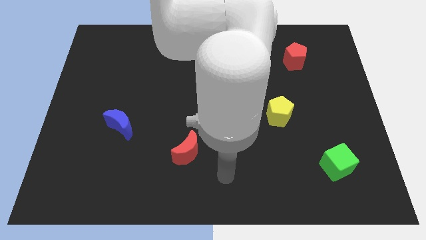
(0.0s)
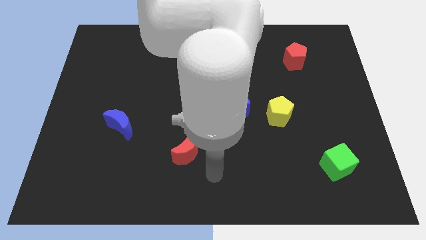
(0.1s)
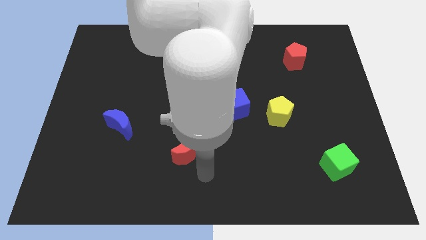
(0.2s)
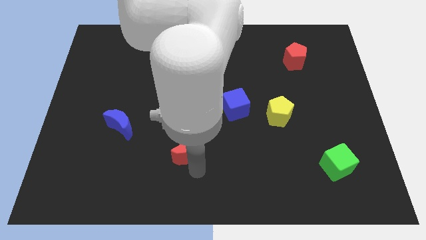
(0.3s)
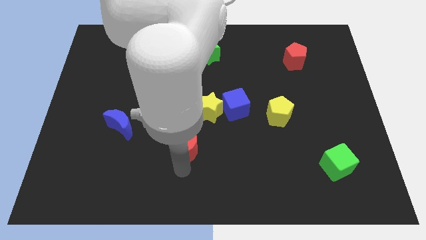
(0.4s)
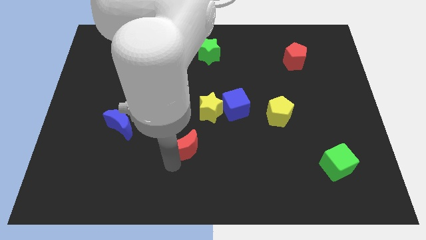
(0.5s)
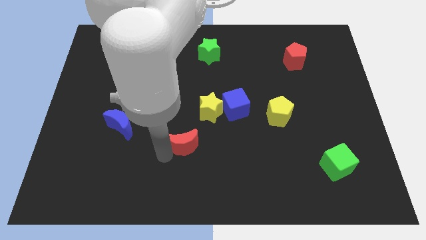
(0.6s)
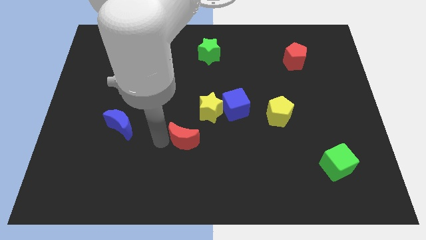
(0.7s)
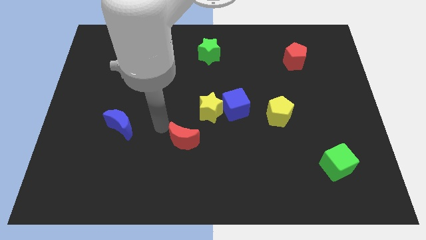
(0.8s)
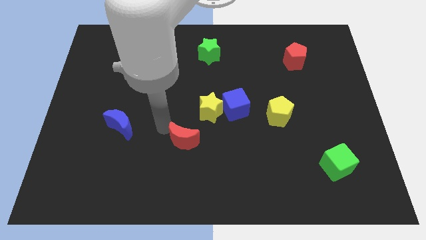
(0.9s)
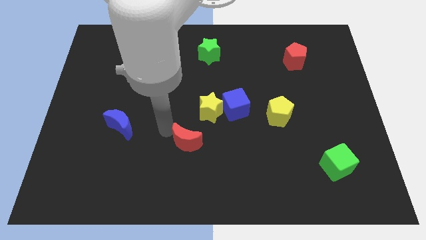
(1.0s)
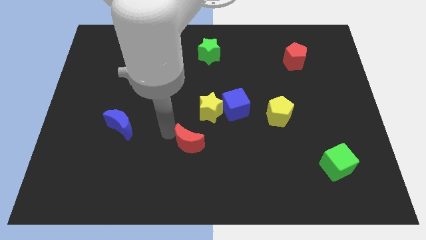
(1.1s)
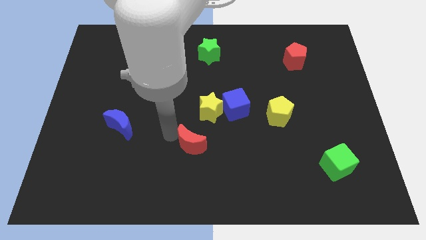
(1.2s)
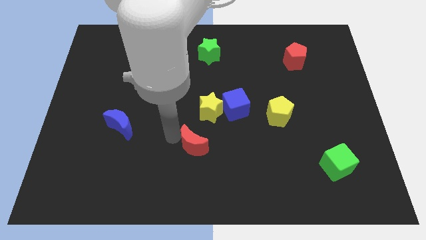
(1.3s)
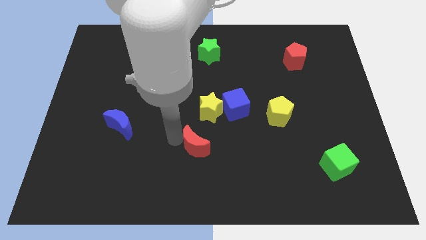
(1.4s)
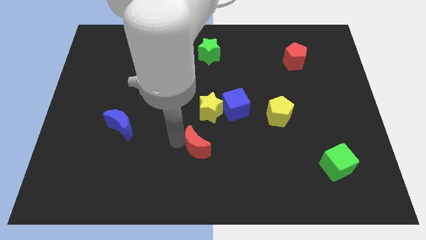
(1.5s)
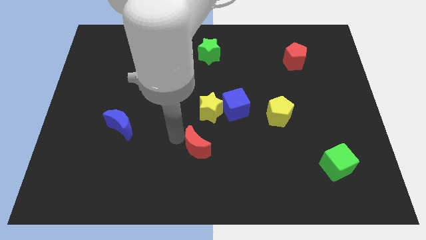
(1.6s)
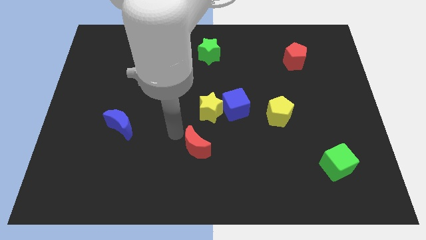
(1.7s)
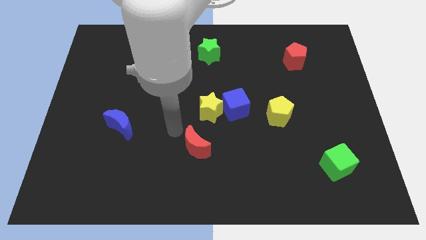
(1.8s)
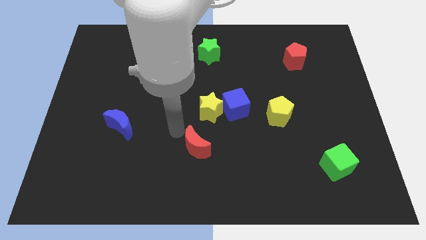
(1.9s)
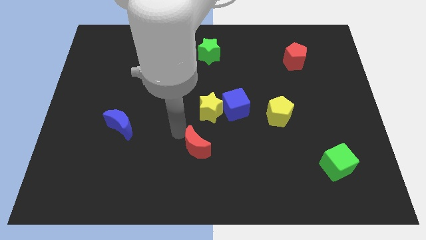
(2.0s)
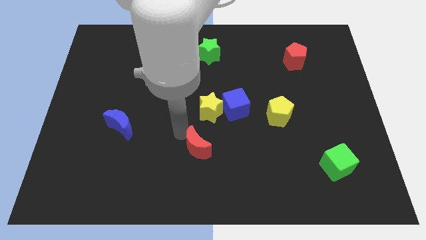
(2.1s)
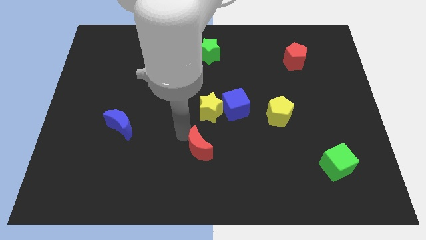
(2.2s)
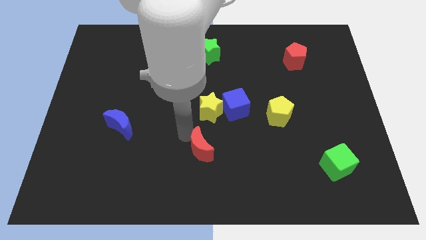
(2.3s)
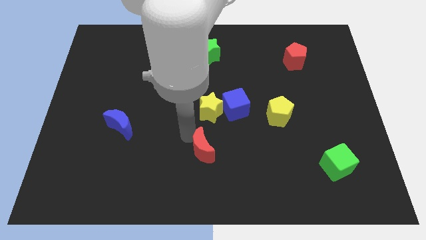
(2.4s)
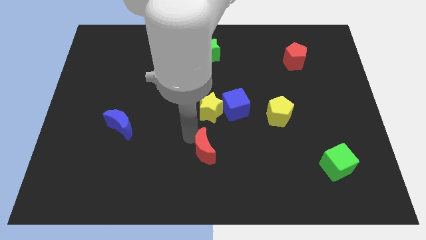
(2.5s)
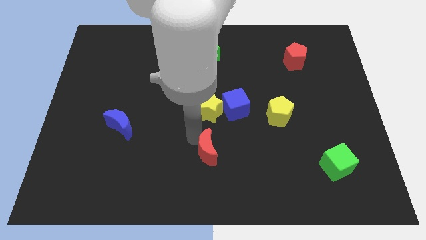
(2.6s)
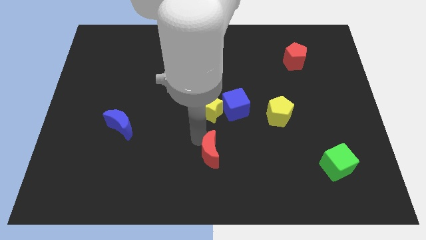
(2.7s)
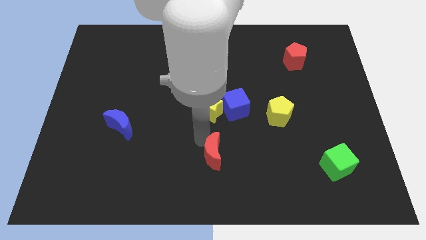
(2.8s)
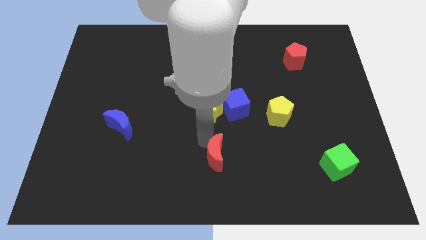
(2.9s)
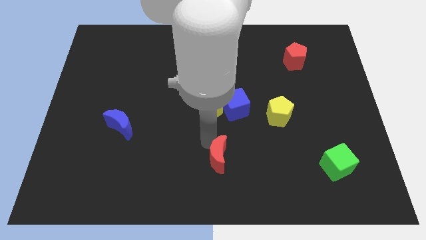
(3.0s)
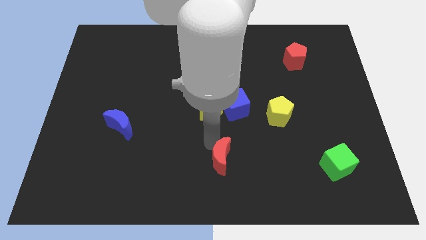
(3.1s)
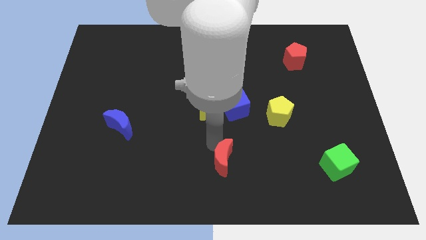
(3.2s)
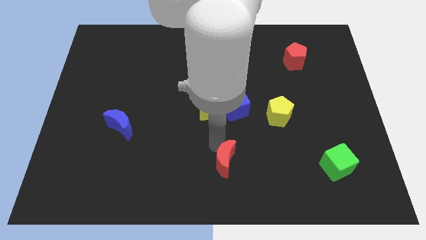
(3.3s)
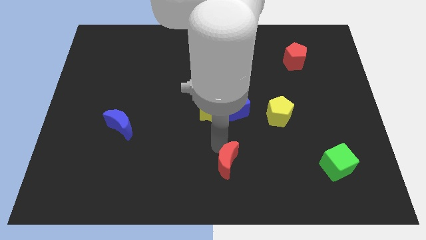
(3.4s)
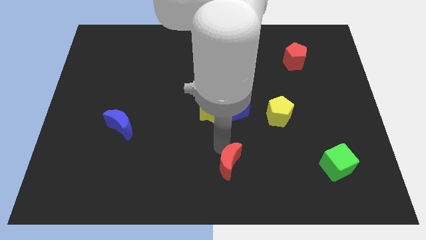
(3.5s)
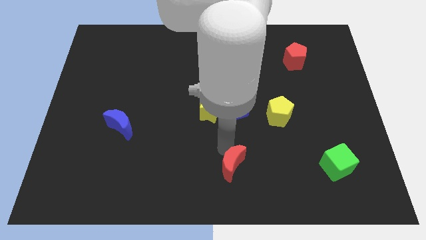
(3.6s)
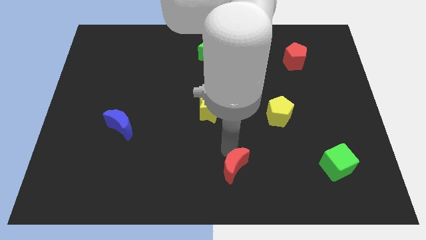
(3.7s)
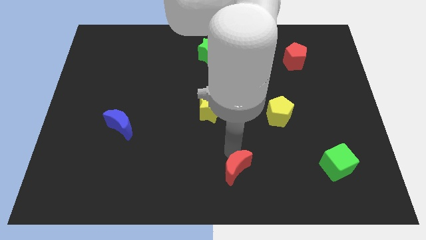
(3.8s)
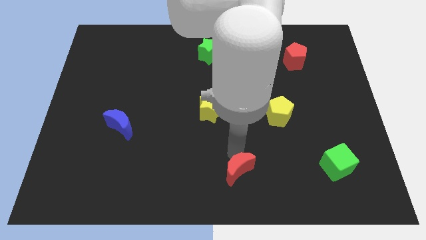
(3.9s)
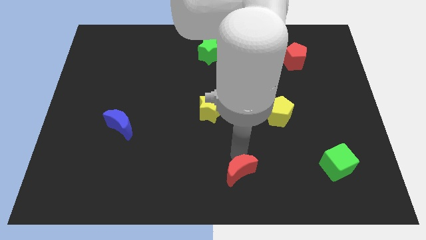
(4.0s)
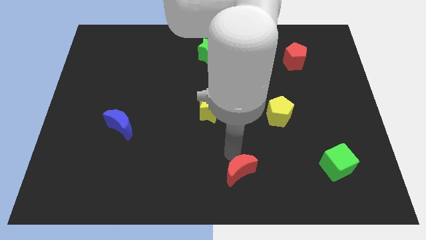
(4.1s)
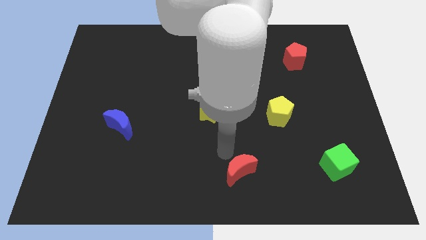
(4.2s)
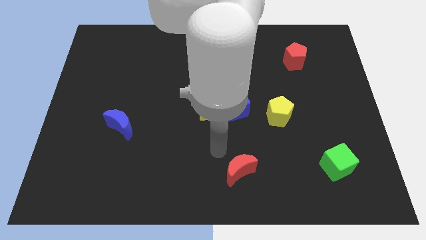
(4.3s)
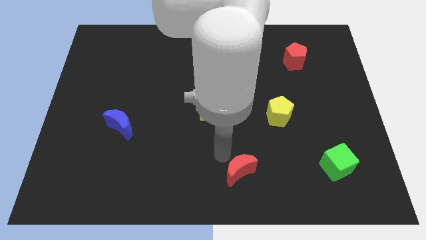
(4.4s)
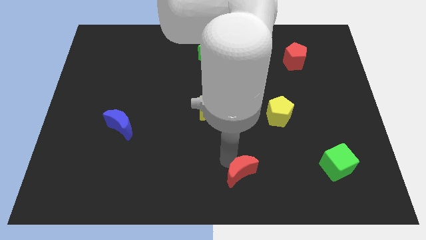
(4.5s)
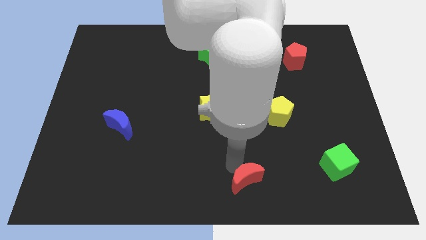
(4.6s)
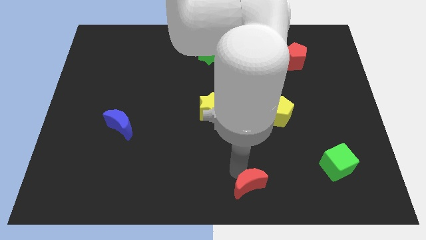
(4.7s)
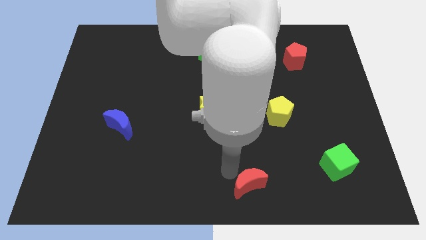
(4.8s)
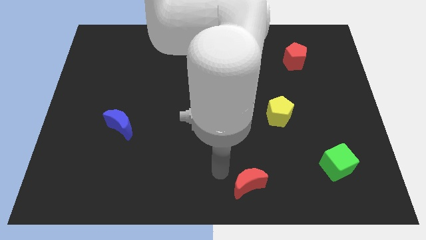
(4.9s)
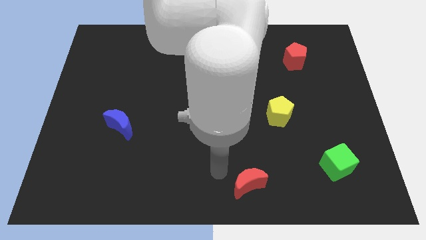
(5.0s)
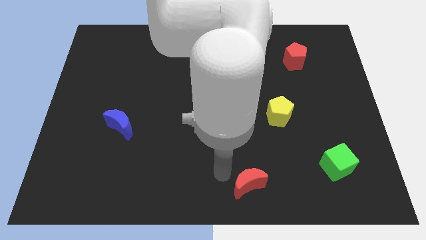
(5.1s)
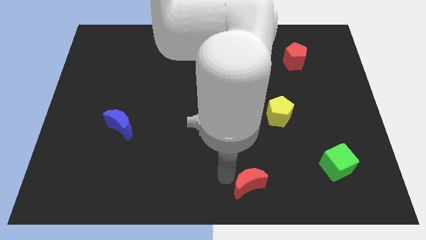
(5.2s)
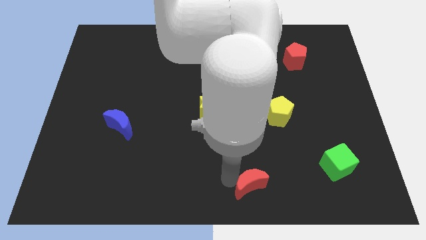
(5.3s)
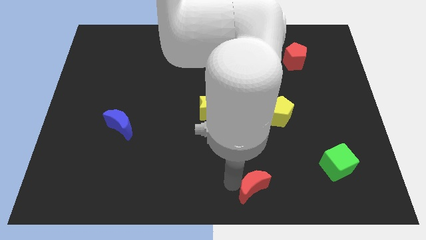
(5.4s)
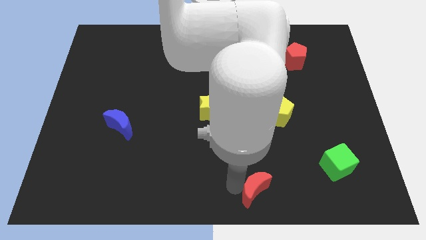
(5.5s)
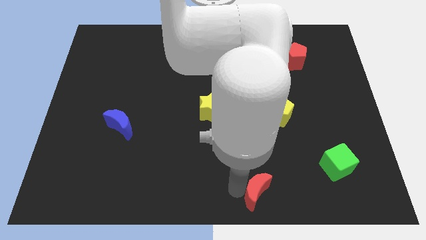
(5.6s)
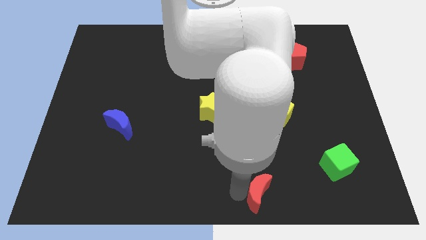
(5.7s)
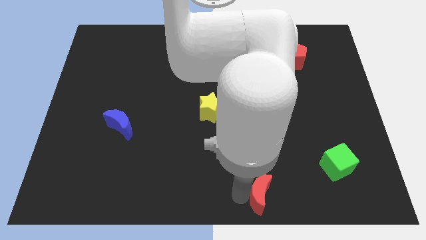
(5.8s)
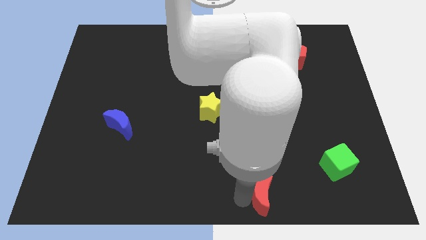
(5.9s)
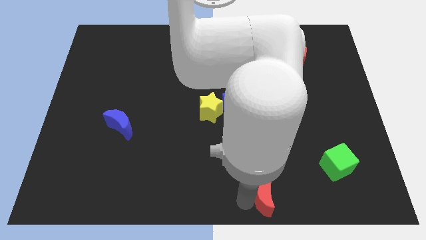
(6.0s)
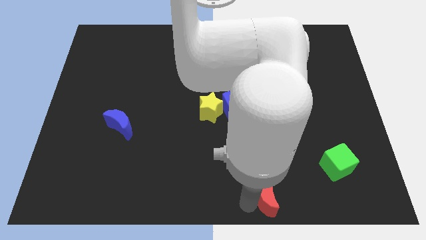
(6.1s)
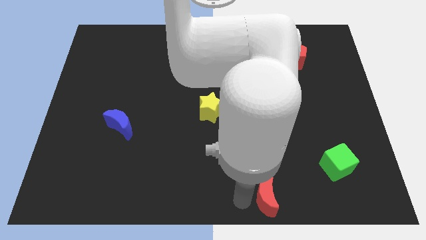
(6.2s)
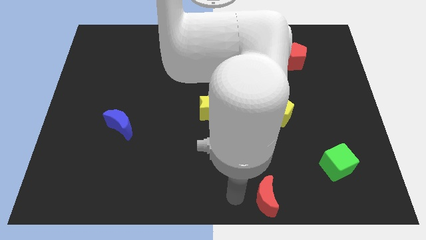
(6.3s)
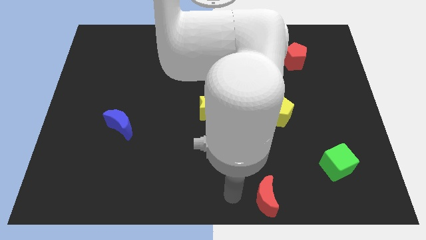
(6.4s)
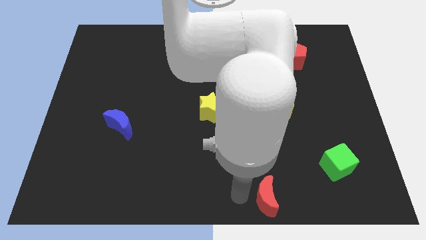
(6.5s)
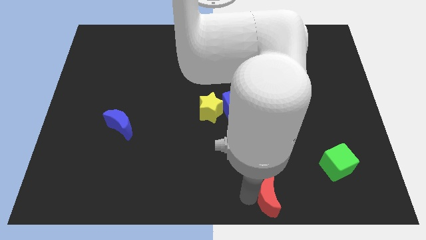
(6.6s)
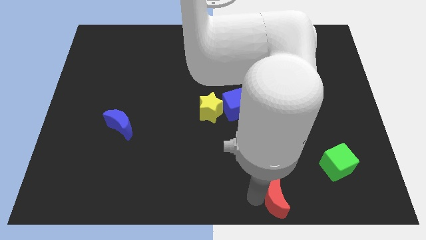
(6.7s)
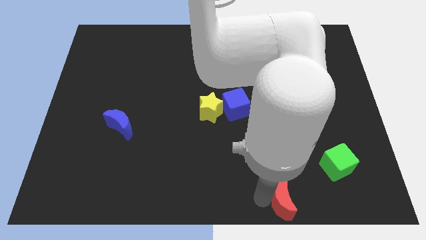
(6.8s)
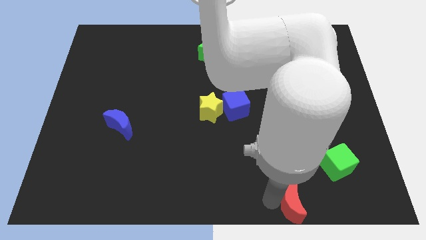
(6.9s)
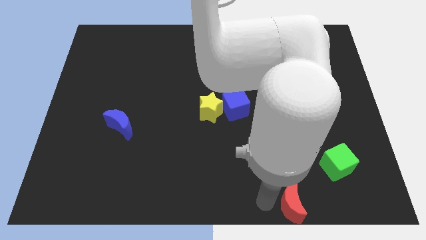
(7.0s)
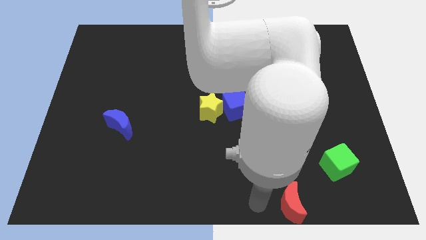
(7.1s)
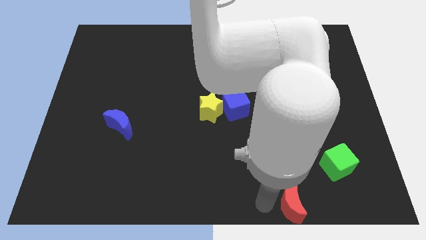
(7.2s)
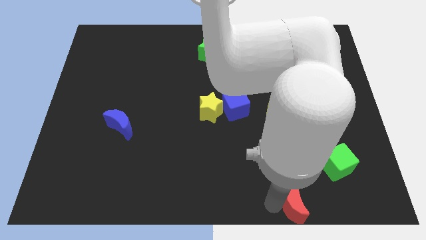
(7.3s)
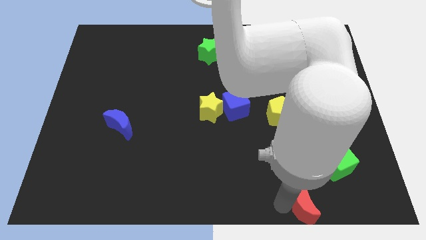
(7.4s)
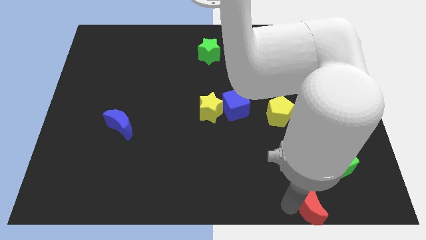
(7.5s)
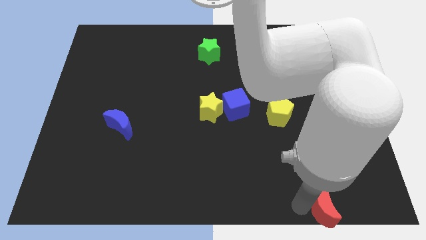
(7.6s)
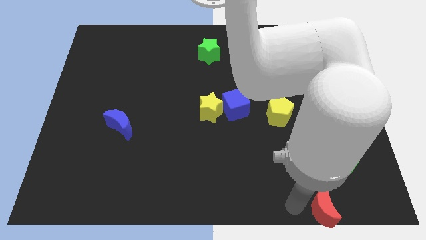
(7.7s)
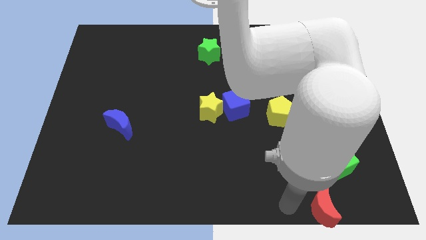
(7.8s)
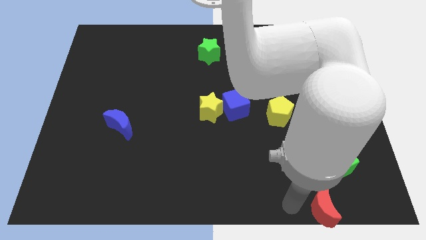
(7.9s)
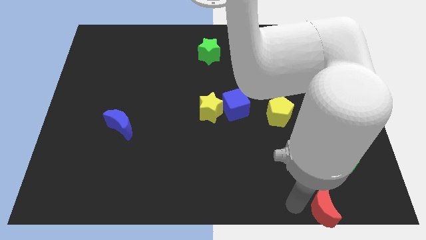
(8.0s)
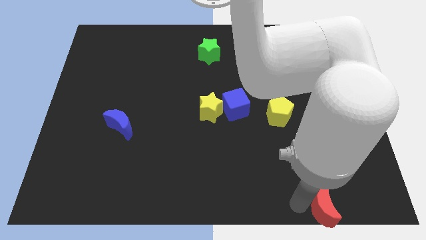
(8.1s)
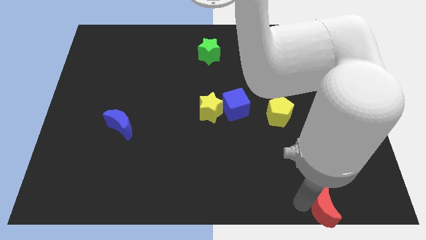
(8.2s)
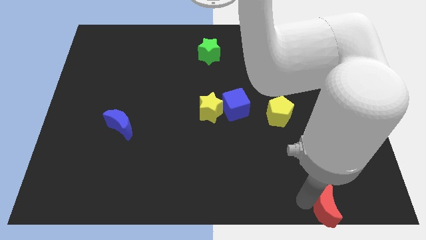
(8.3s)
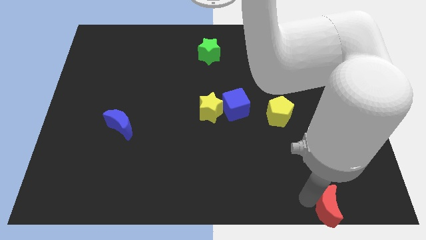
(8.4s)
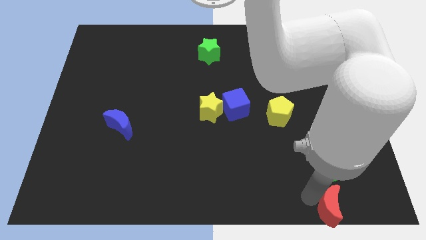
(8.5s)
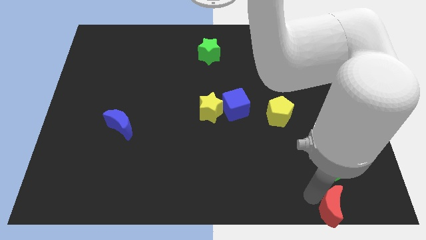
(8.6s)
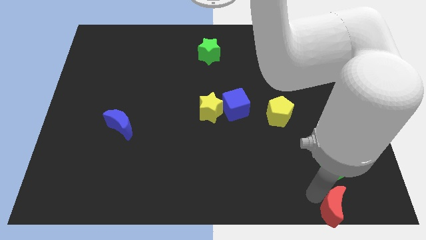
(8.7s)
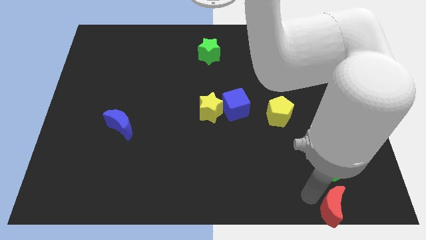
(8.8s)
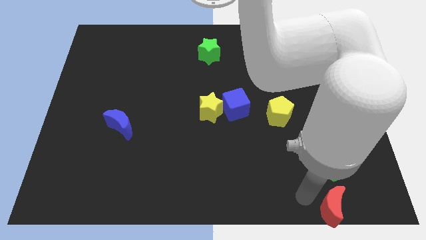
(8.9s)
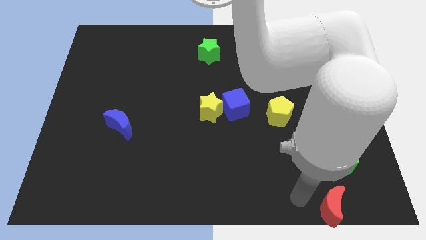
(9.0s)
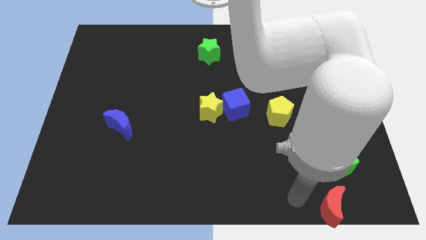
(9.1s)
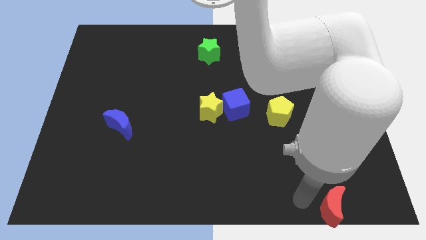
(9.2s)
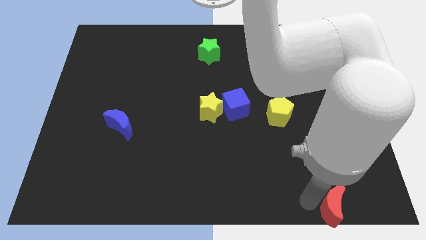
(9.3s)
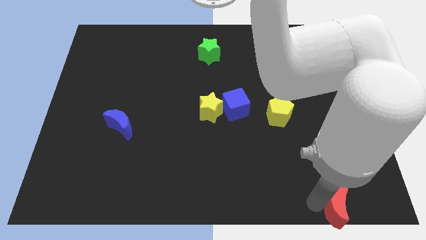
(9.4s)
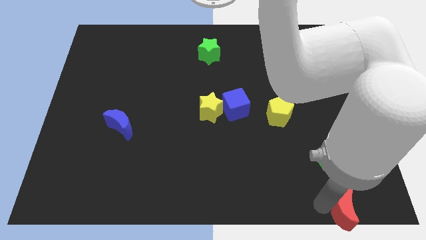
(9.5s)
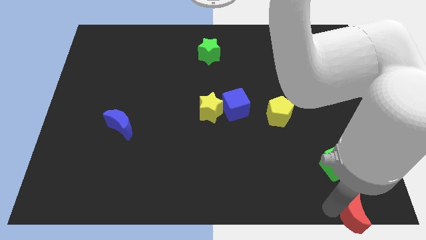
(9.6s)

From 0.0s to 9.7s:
push the red moon to the lower right corner
